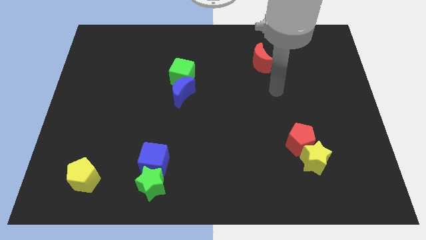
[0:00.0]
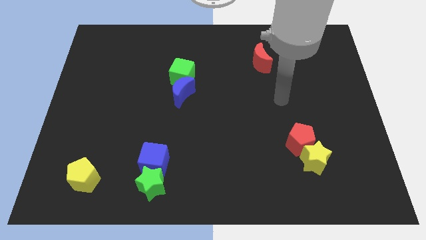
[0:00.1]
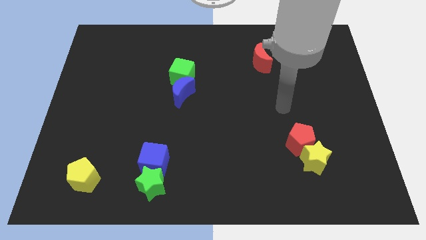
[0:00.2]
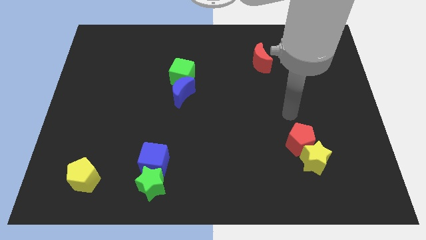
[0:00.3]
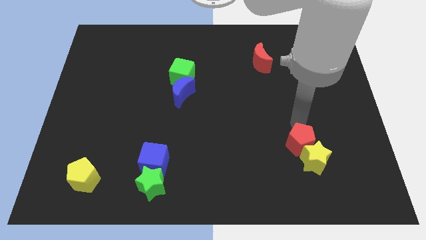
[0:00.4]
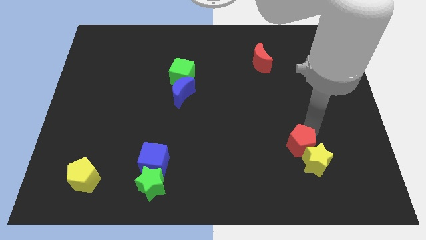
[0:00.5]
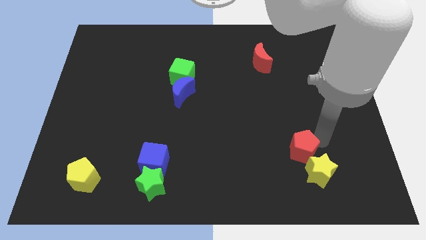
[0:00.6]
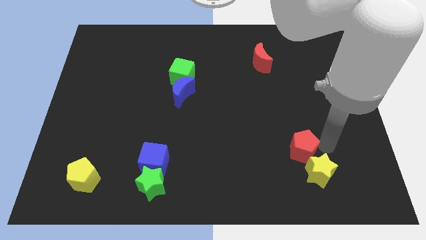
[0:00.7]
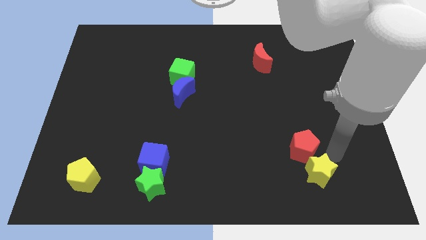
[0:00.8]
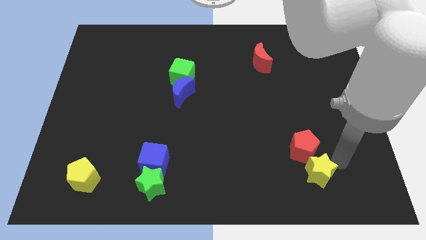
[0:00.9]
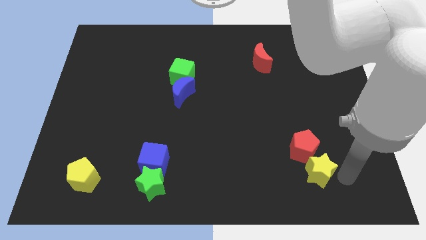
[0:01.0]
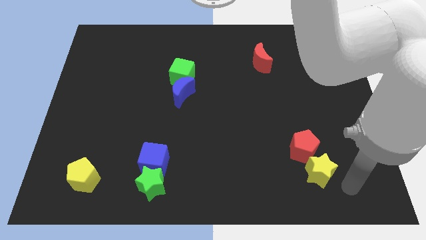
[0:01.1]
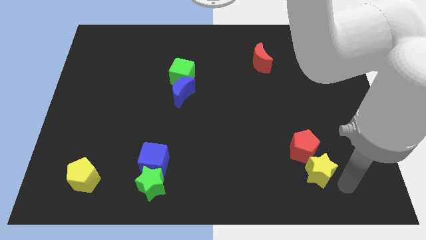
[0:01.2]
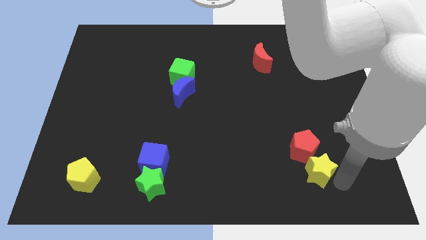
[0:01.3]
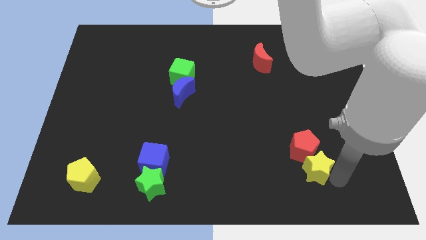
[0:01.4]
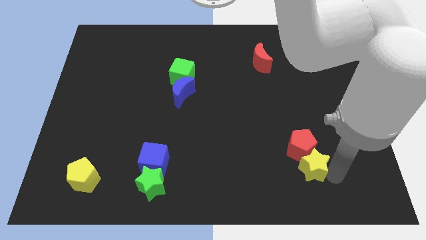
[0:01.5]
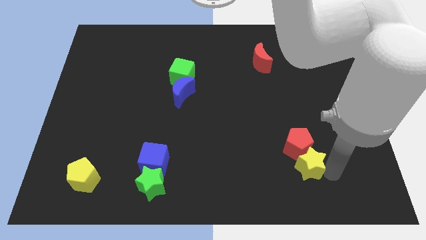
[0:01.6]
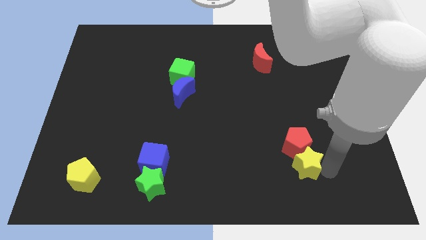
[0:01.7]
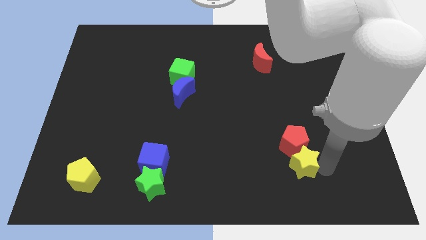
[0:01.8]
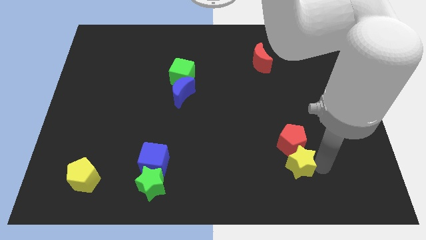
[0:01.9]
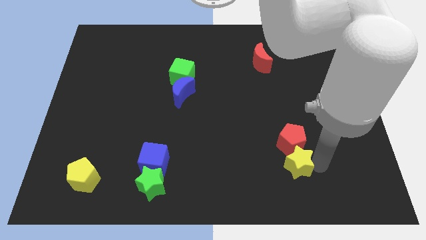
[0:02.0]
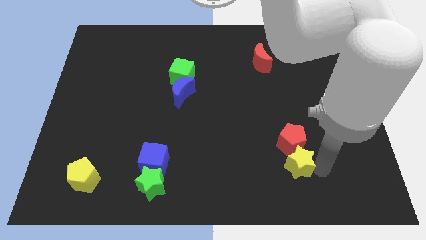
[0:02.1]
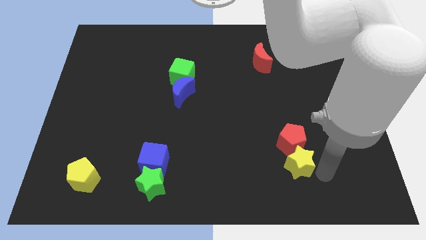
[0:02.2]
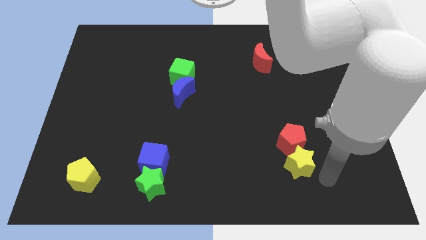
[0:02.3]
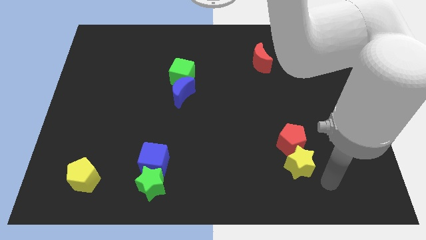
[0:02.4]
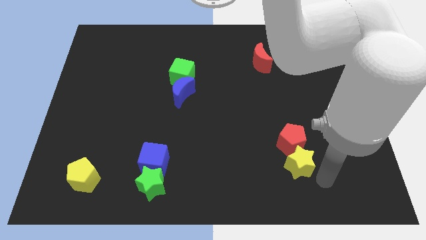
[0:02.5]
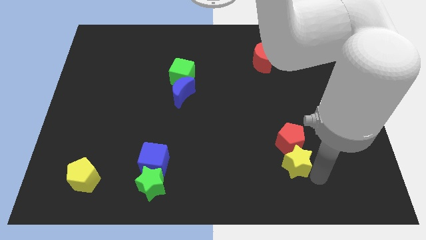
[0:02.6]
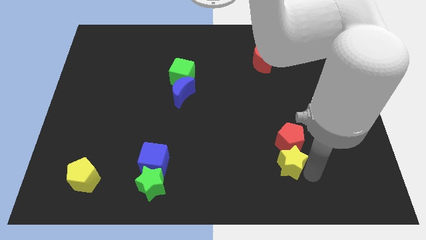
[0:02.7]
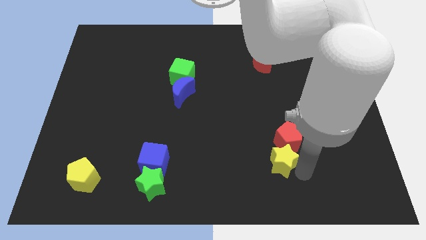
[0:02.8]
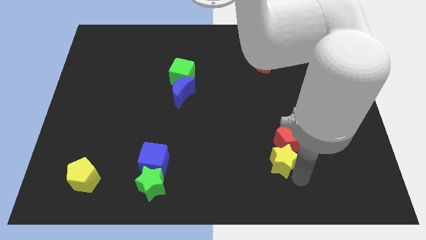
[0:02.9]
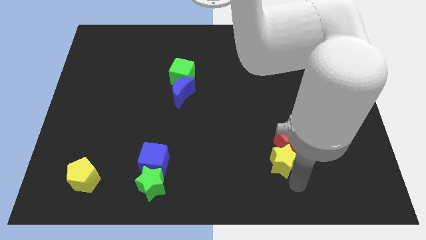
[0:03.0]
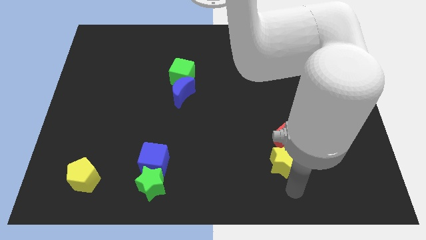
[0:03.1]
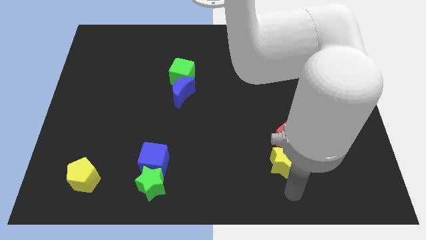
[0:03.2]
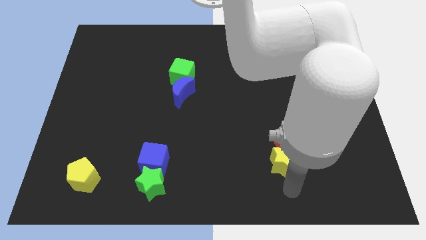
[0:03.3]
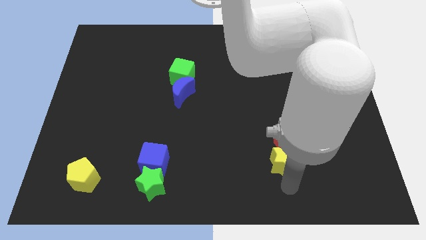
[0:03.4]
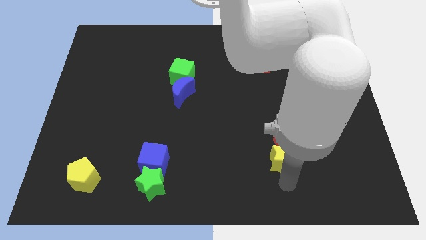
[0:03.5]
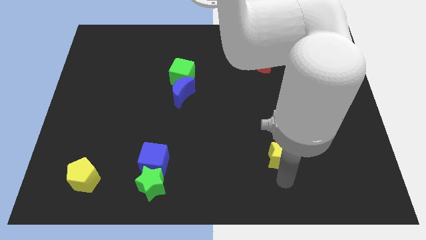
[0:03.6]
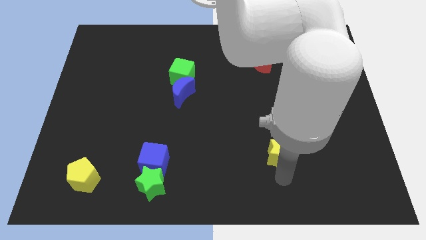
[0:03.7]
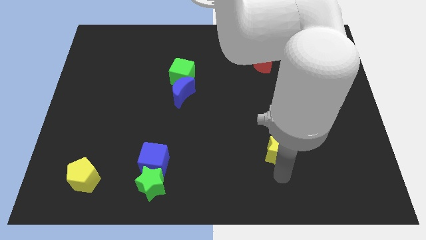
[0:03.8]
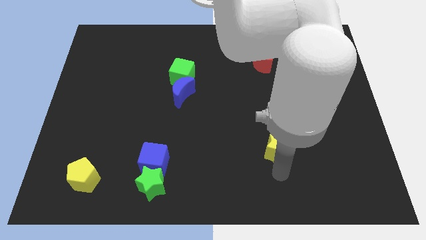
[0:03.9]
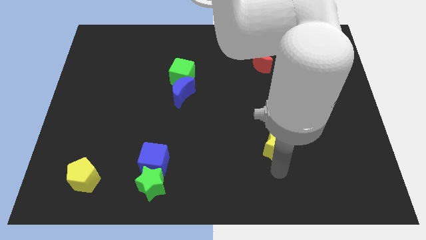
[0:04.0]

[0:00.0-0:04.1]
move the yellow star a little bit upwards and left diagonally

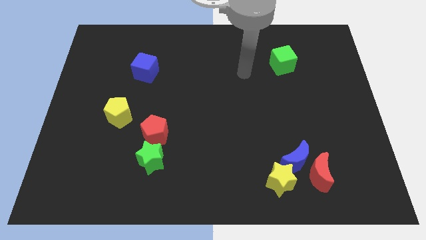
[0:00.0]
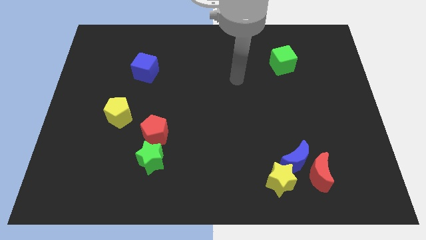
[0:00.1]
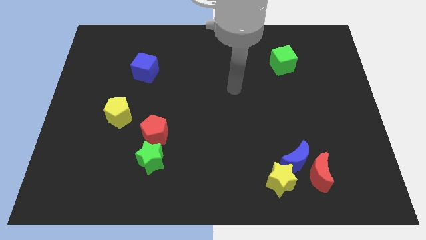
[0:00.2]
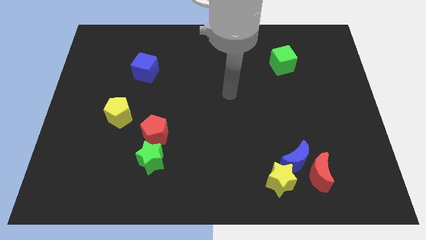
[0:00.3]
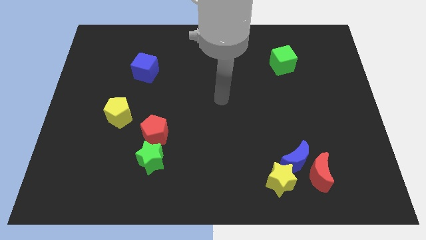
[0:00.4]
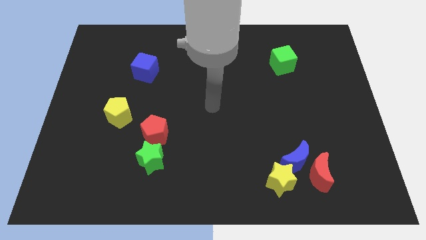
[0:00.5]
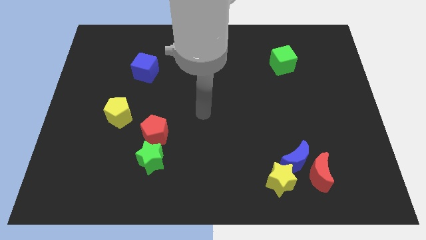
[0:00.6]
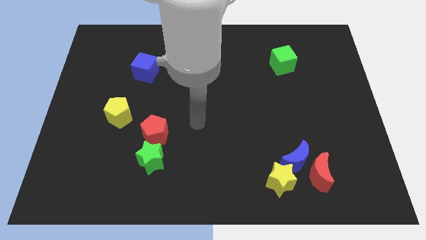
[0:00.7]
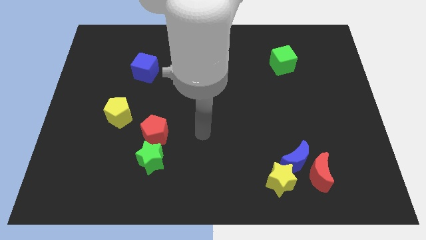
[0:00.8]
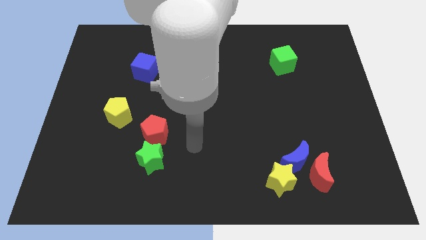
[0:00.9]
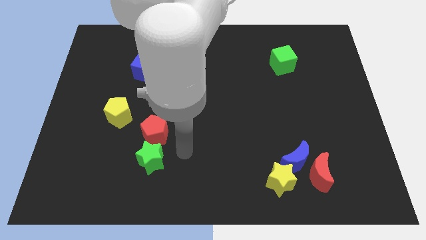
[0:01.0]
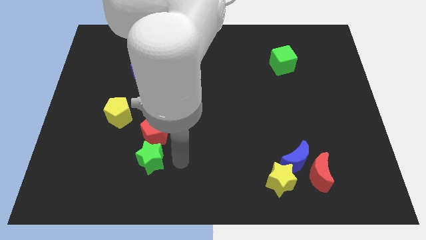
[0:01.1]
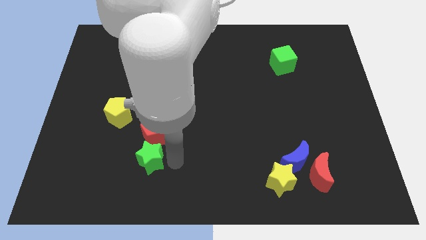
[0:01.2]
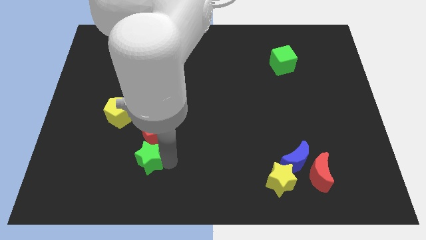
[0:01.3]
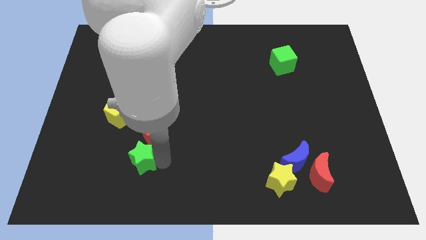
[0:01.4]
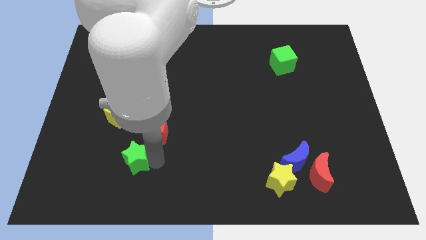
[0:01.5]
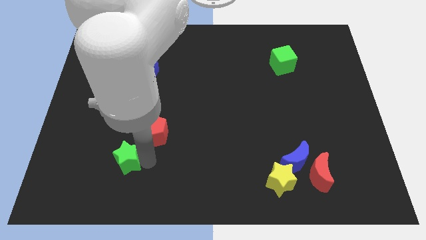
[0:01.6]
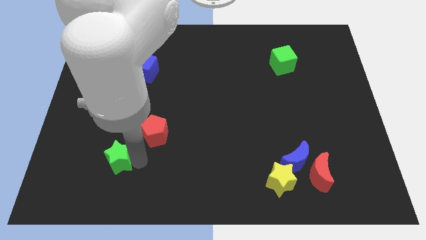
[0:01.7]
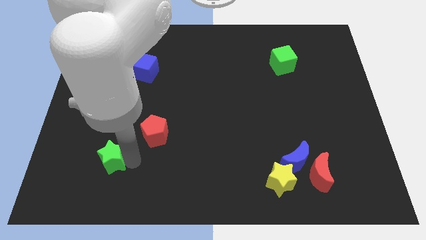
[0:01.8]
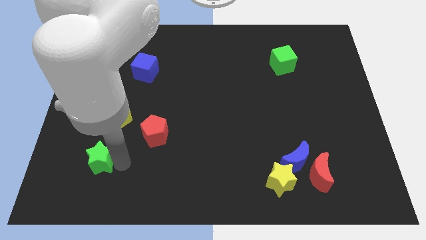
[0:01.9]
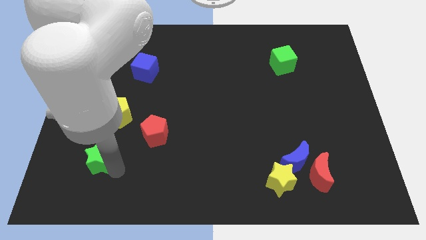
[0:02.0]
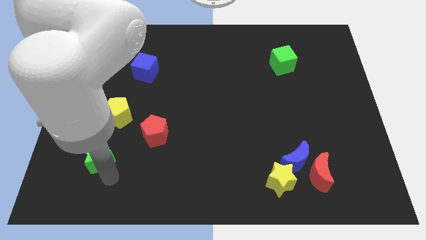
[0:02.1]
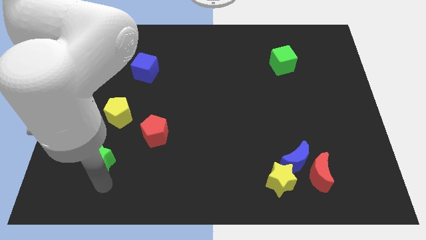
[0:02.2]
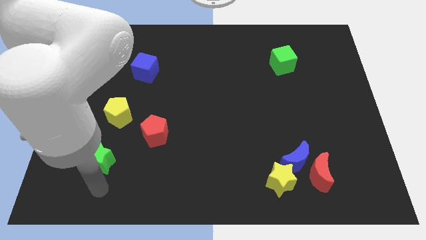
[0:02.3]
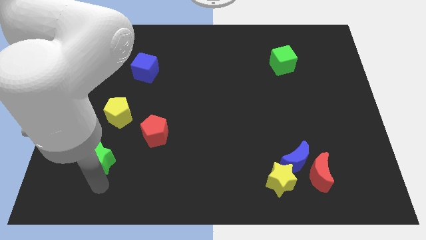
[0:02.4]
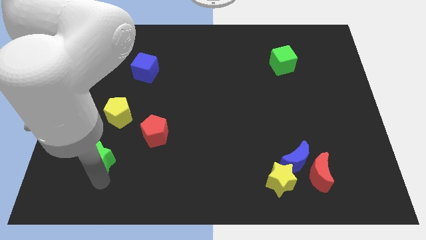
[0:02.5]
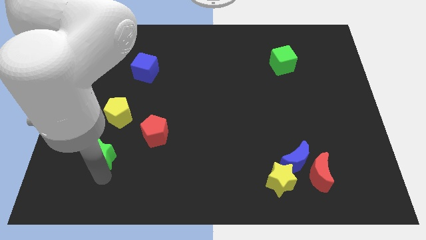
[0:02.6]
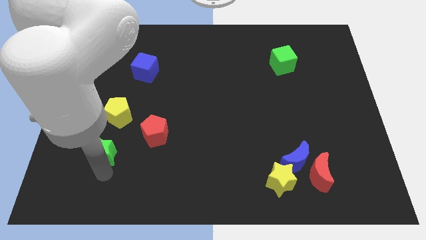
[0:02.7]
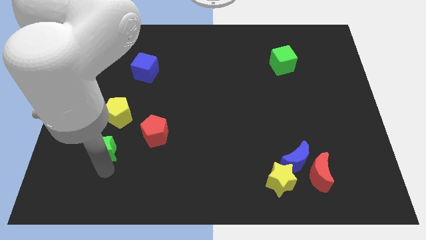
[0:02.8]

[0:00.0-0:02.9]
slide the green star upwards and then left slightly

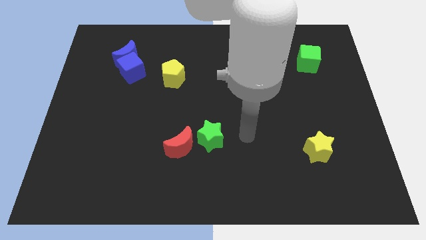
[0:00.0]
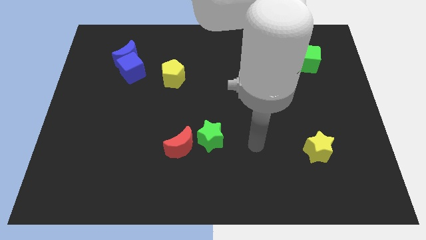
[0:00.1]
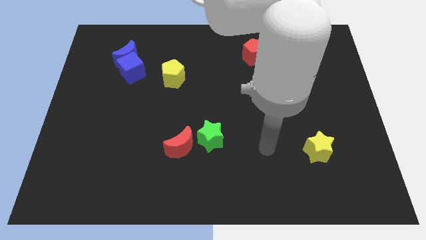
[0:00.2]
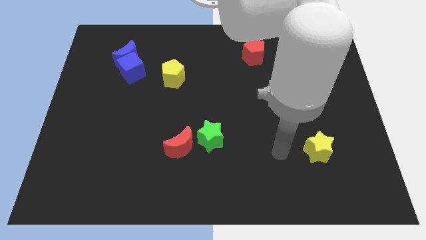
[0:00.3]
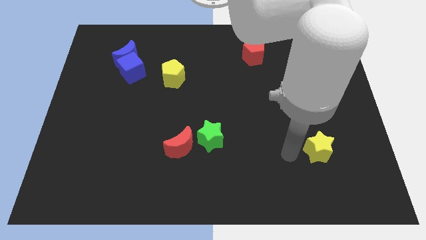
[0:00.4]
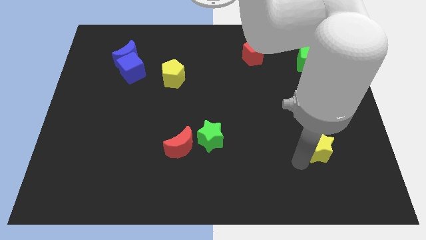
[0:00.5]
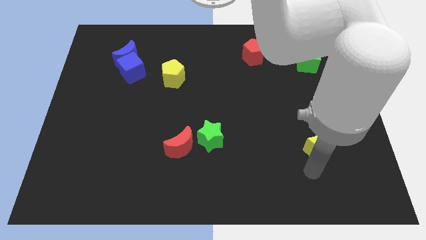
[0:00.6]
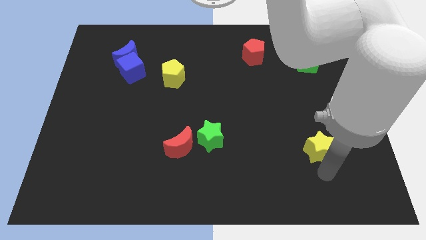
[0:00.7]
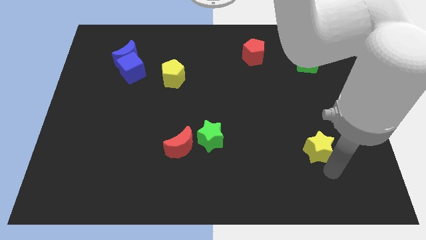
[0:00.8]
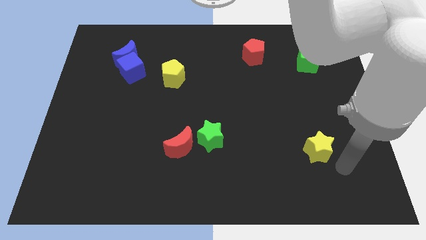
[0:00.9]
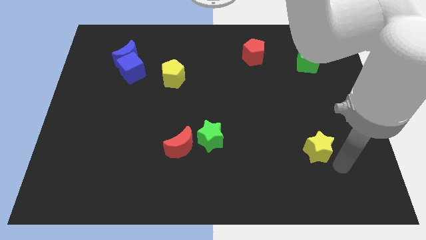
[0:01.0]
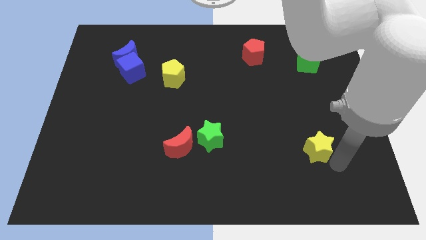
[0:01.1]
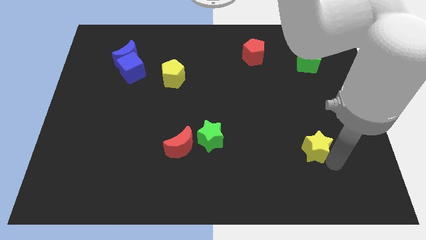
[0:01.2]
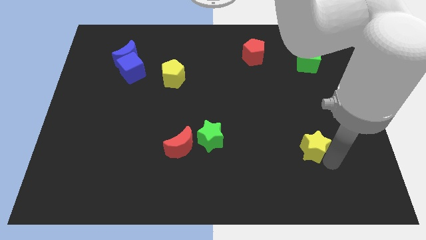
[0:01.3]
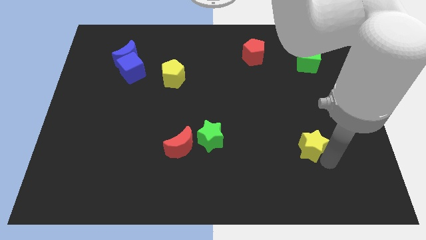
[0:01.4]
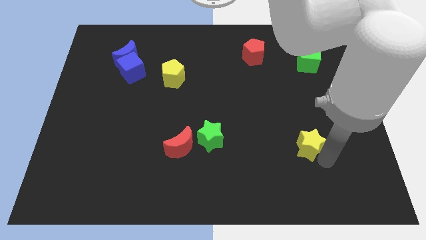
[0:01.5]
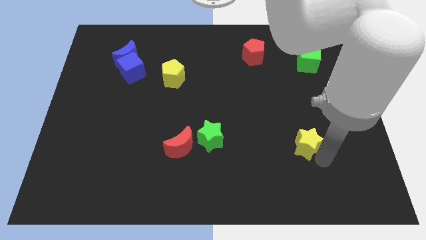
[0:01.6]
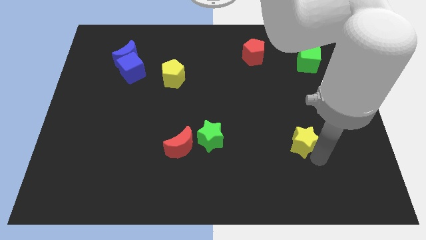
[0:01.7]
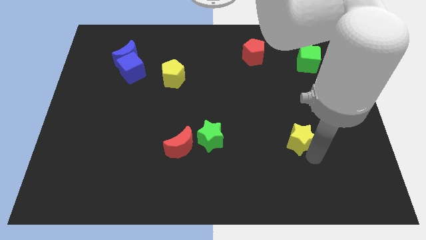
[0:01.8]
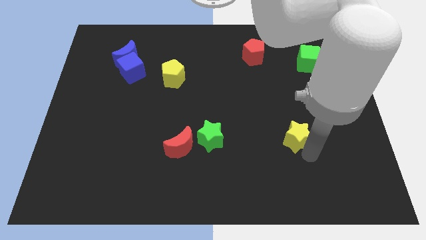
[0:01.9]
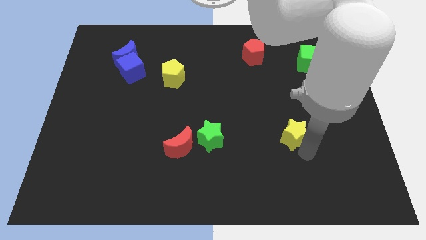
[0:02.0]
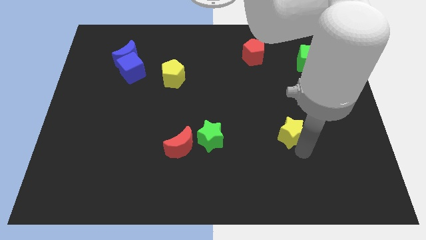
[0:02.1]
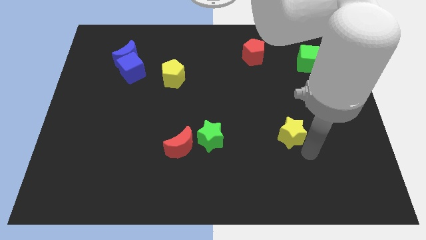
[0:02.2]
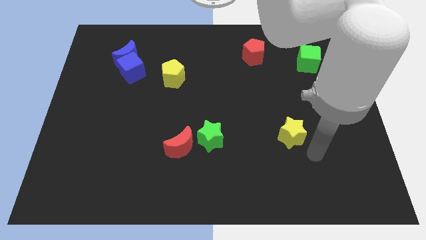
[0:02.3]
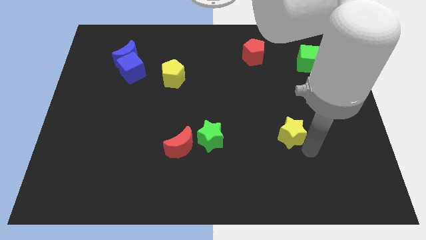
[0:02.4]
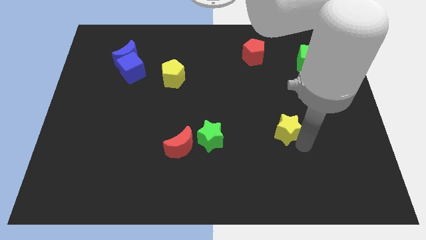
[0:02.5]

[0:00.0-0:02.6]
move the yellow star upwards and then to the left slightly
